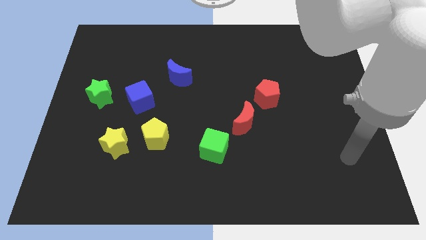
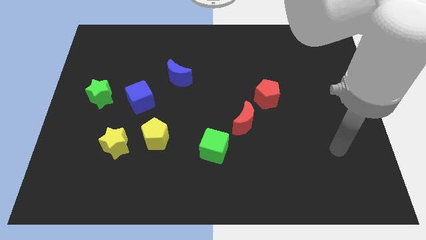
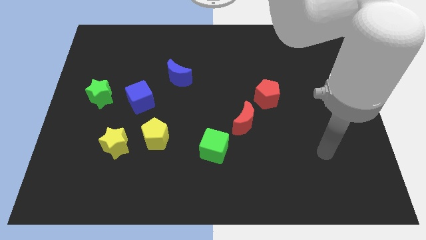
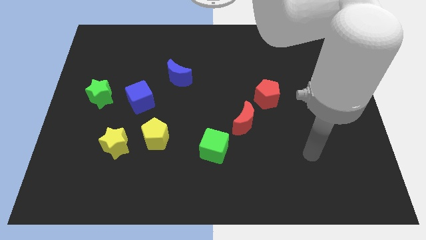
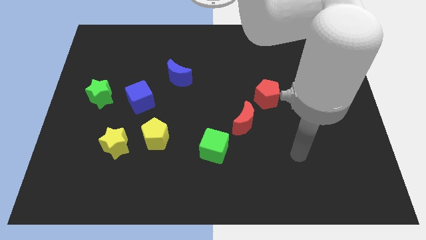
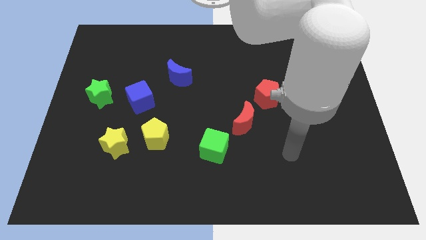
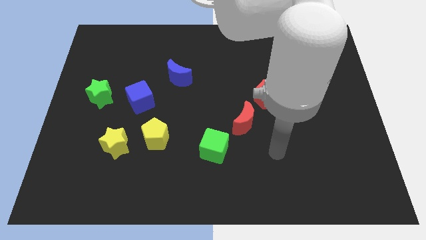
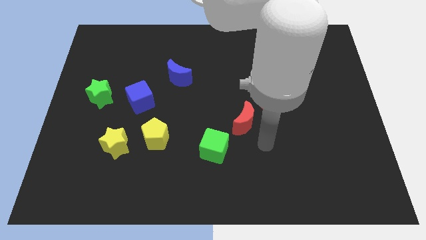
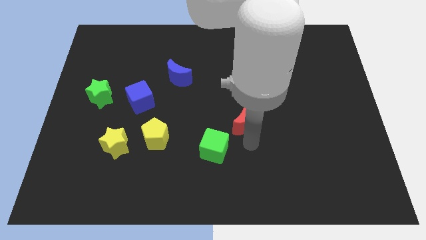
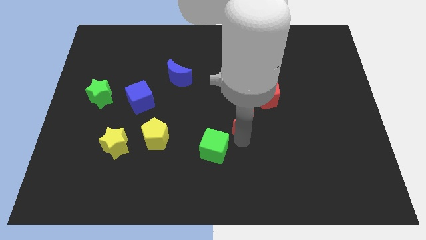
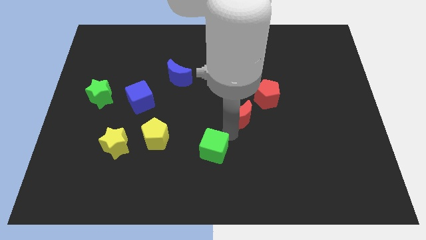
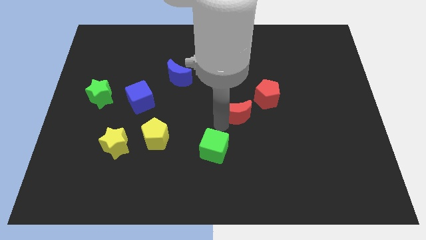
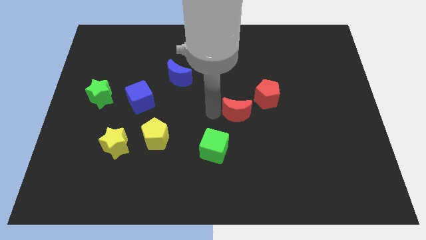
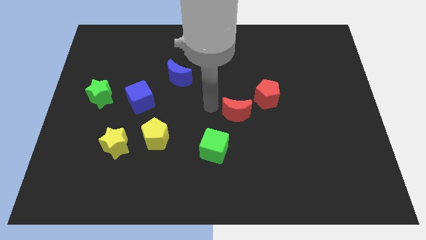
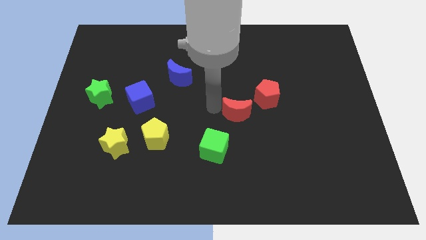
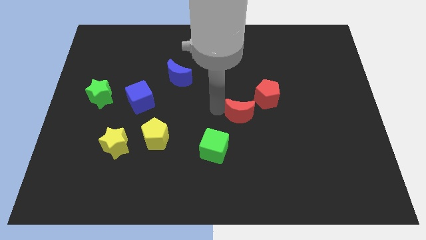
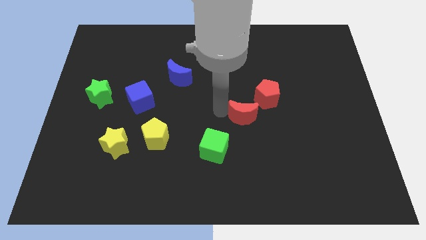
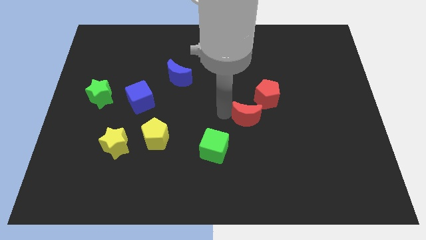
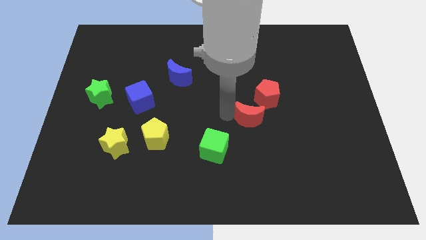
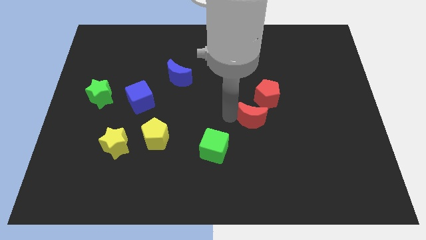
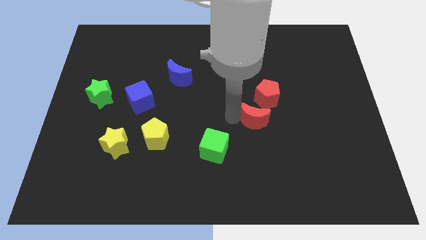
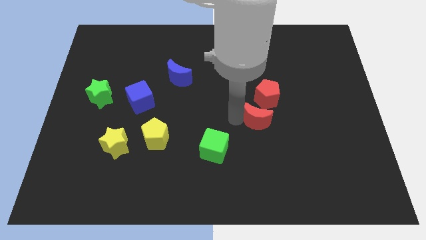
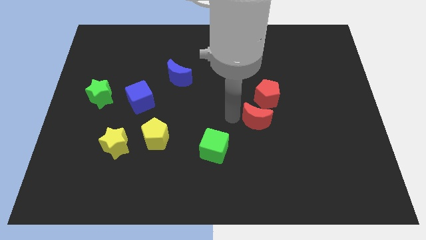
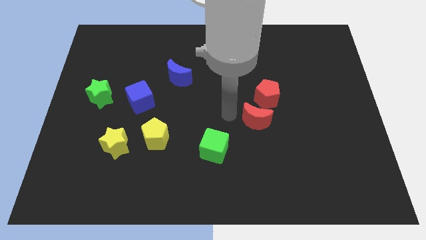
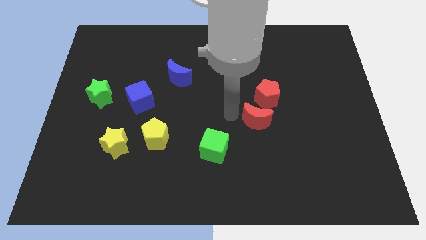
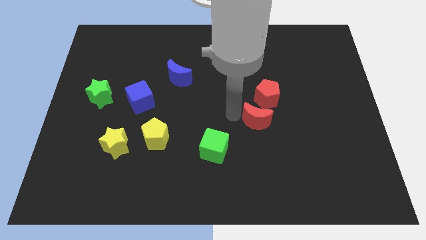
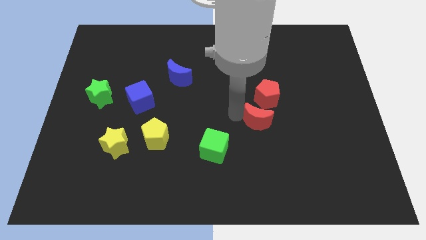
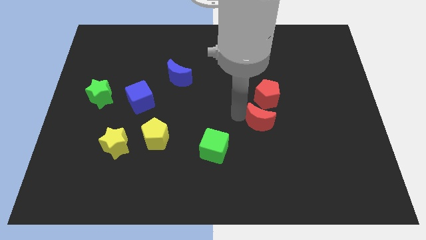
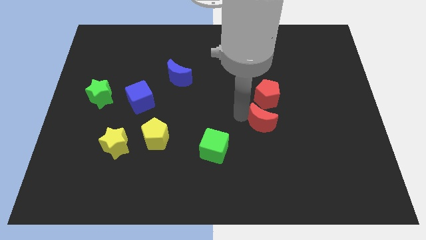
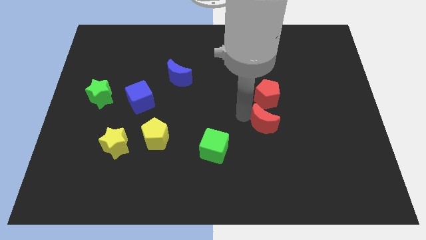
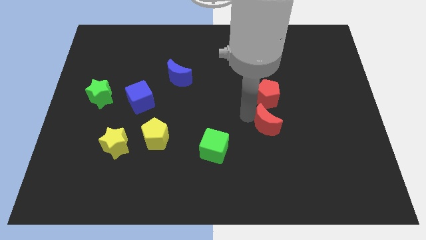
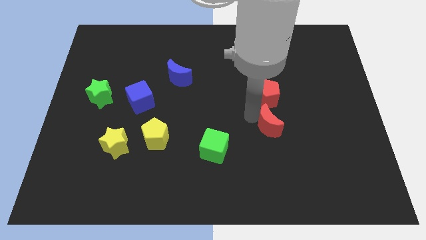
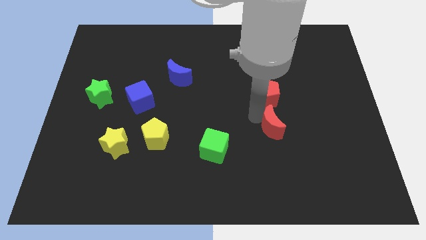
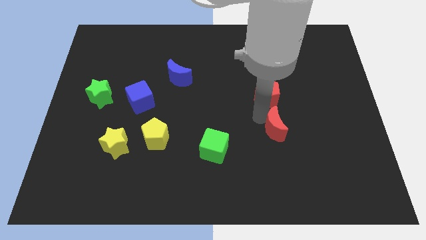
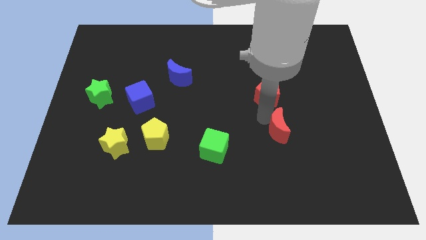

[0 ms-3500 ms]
slightly push the red moon to the right

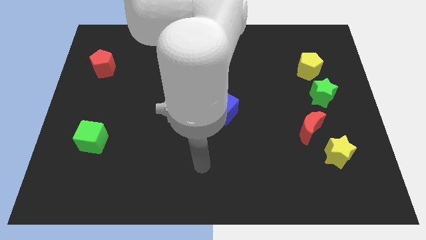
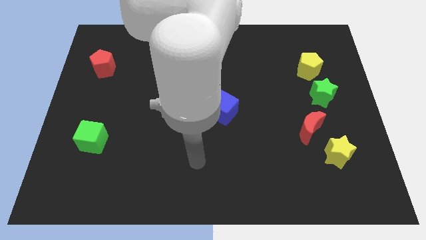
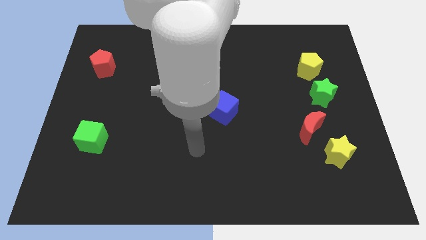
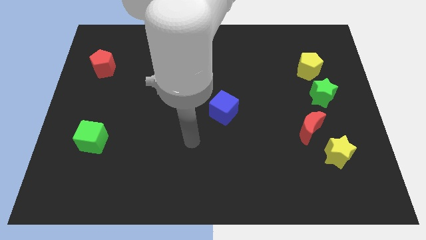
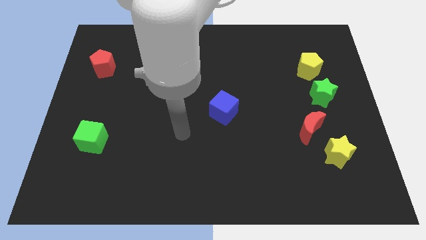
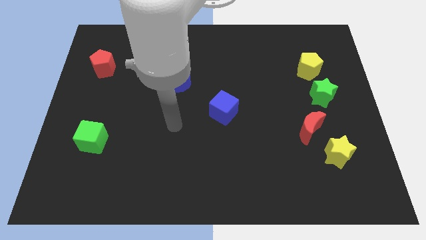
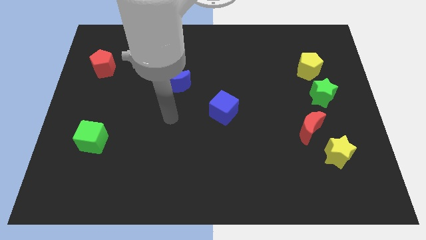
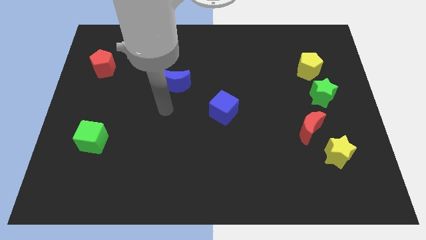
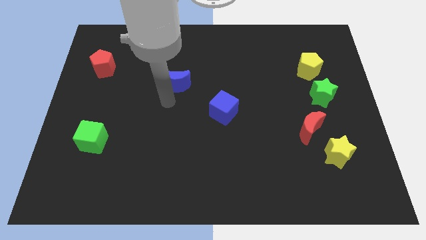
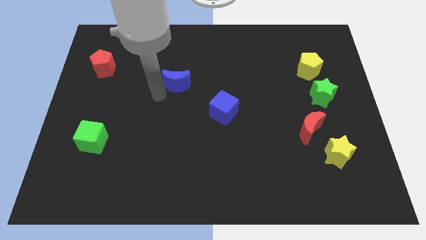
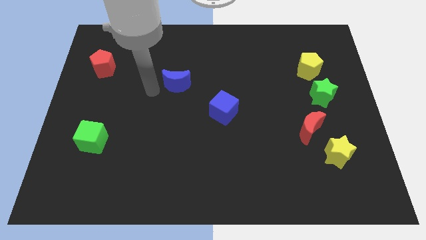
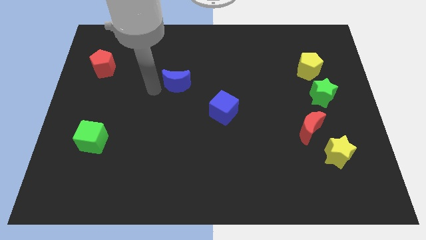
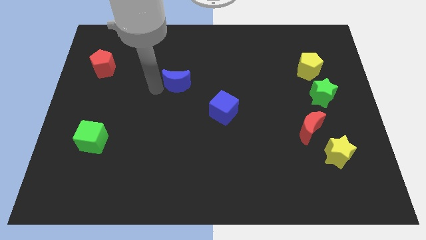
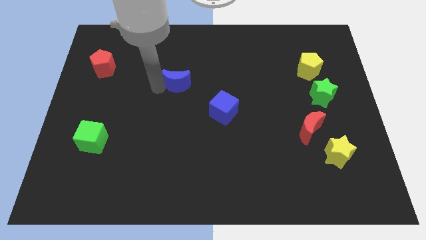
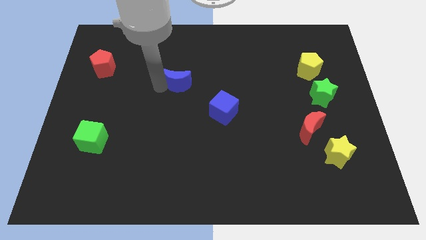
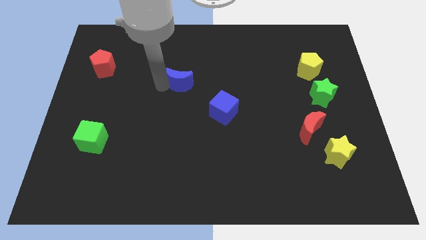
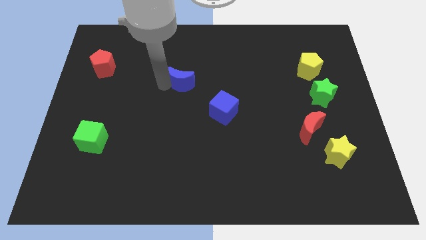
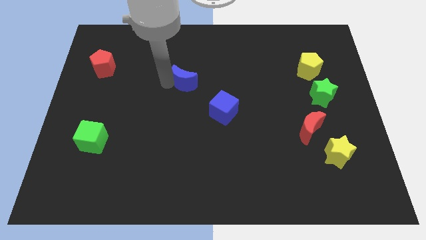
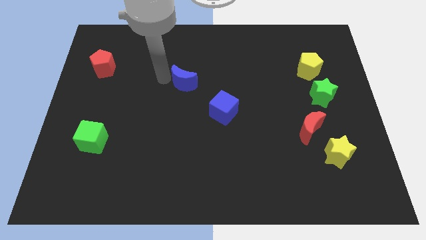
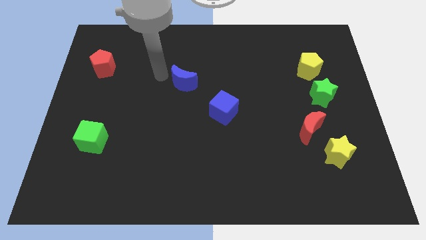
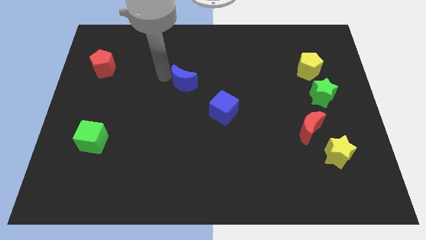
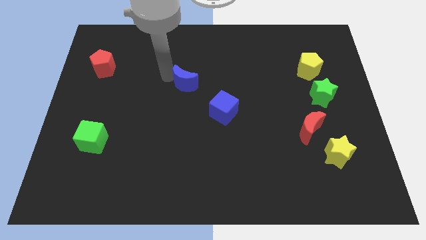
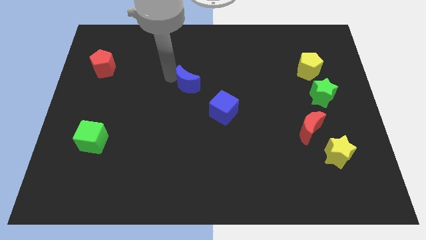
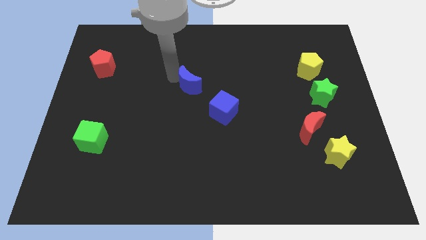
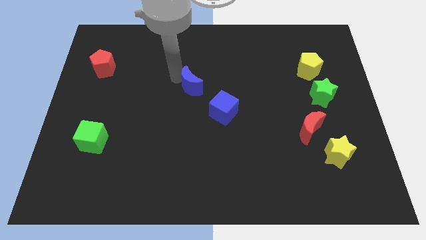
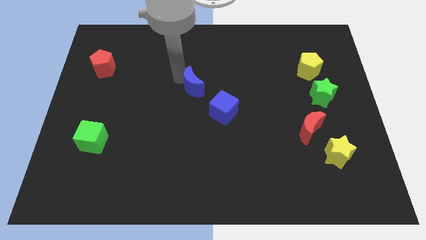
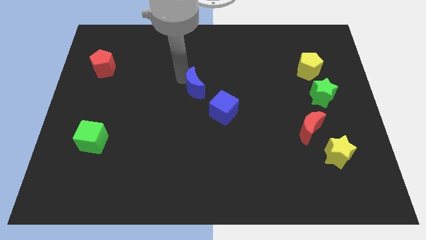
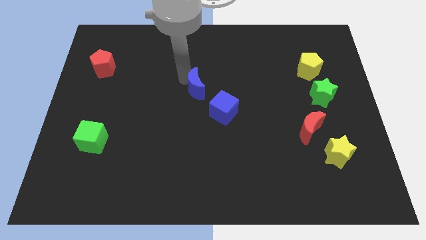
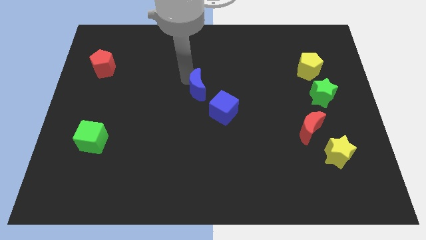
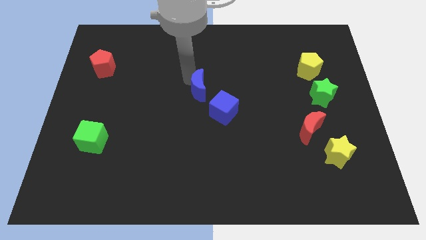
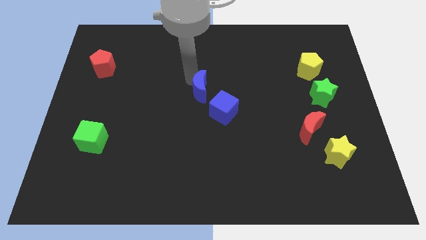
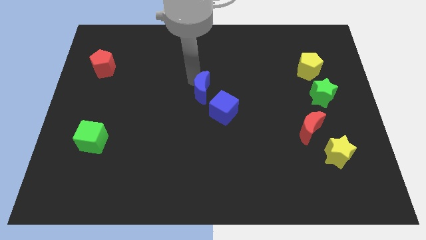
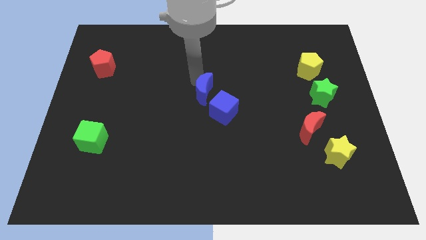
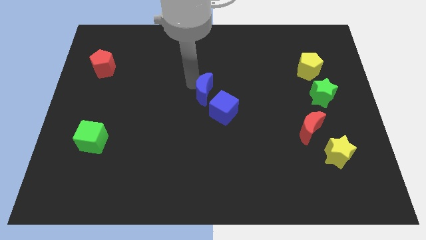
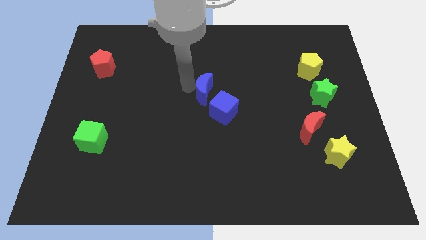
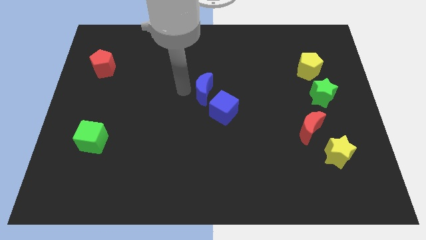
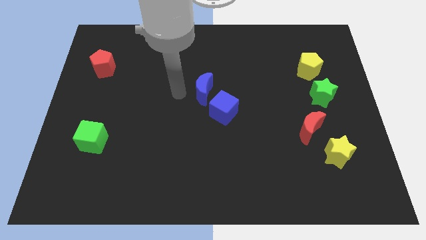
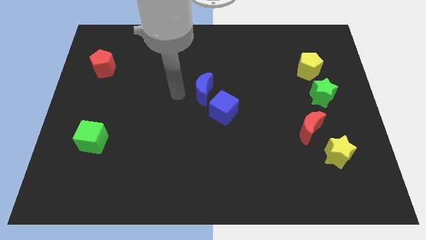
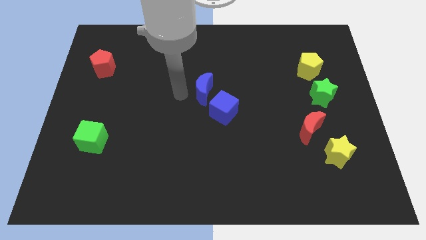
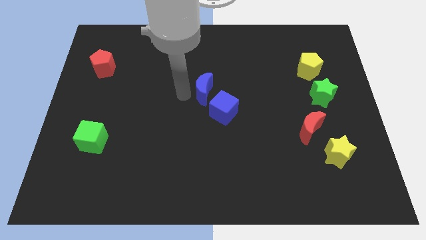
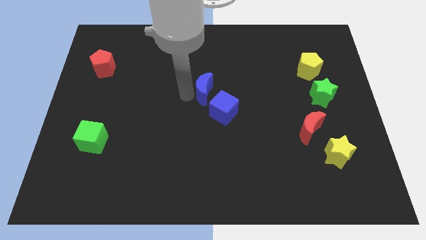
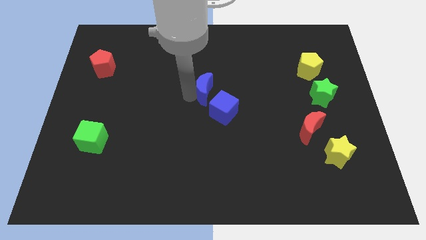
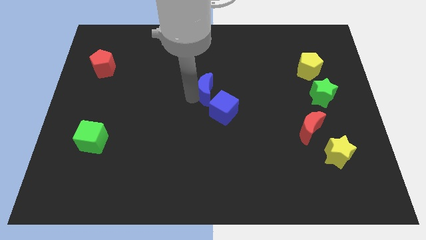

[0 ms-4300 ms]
slide the blue moon slightly right
